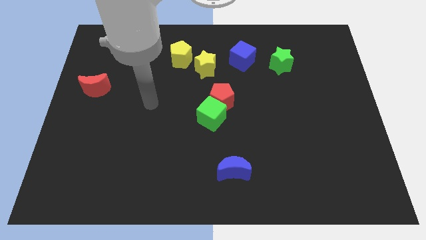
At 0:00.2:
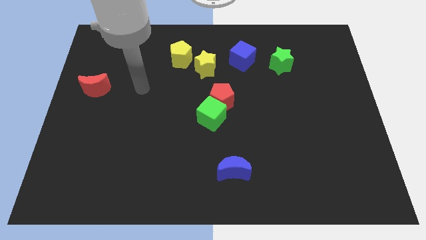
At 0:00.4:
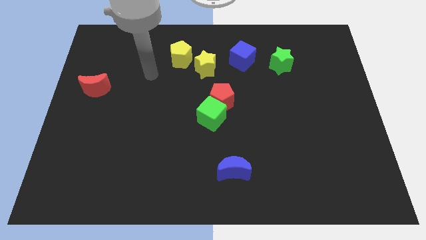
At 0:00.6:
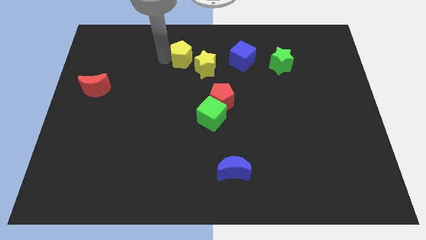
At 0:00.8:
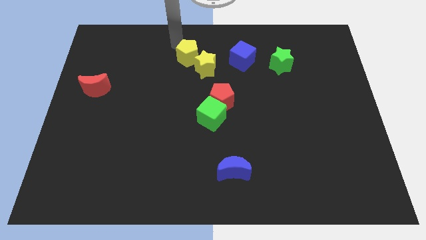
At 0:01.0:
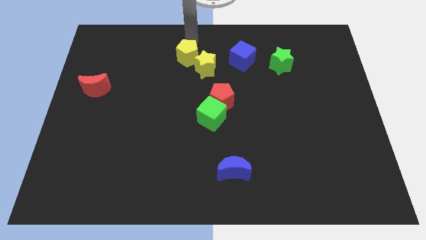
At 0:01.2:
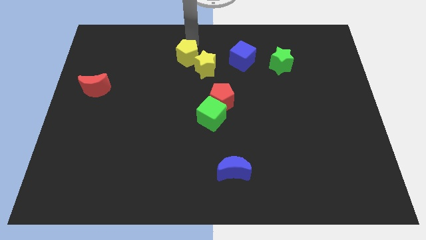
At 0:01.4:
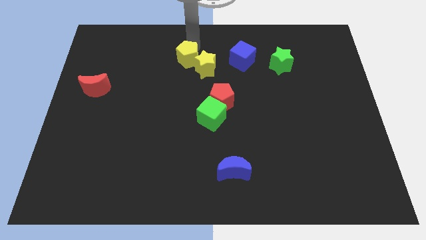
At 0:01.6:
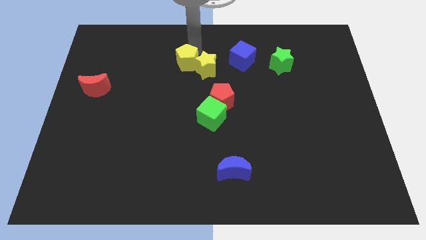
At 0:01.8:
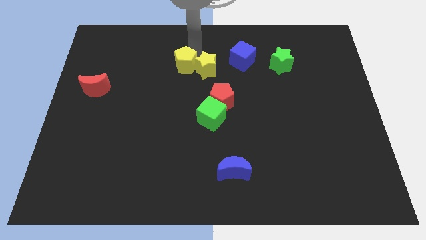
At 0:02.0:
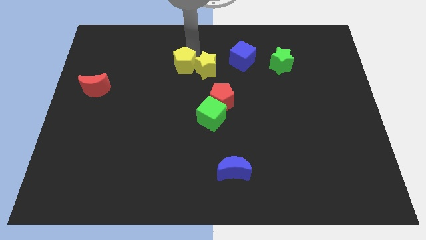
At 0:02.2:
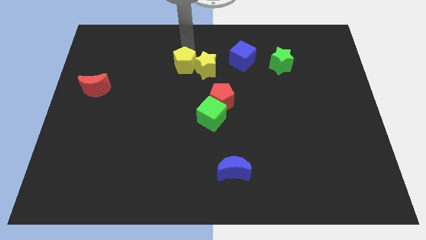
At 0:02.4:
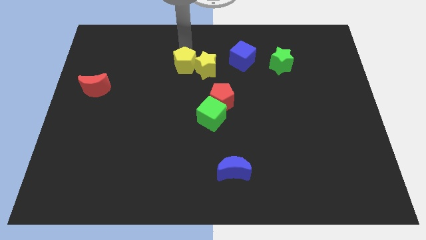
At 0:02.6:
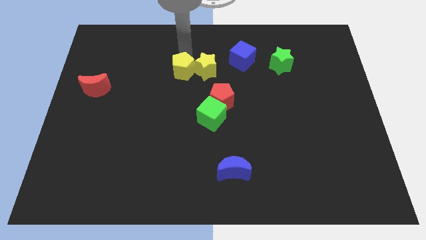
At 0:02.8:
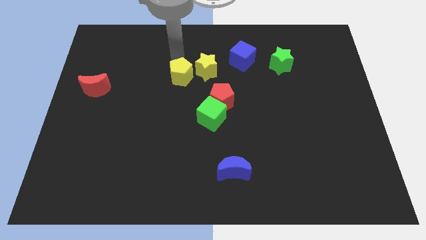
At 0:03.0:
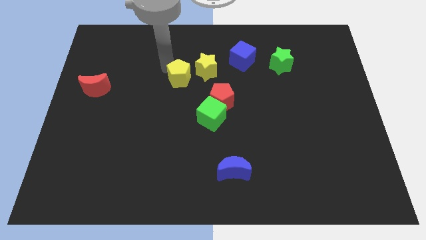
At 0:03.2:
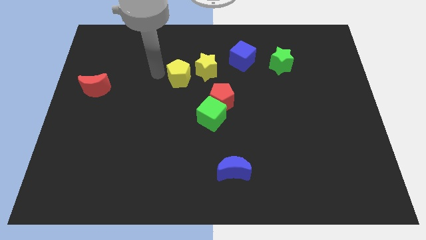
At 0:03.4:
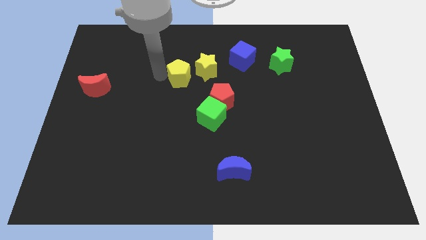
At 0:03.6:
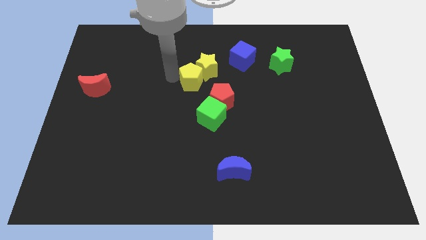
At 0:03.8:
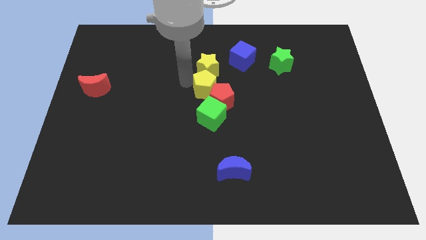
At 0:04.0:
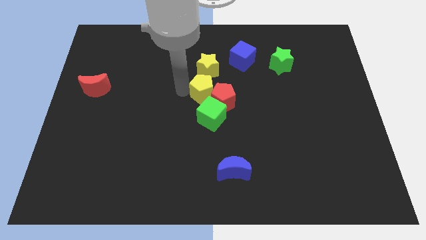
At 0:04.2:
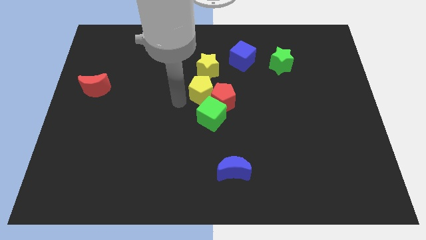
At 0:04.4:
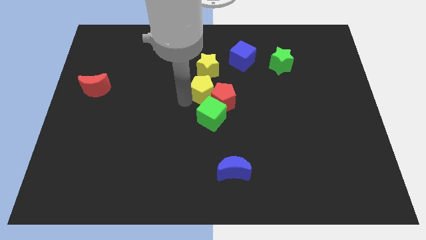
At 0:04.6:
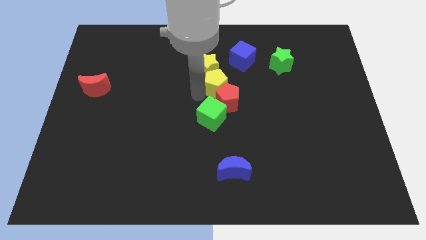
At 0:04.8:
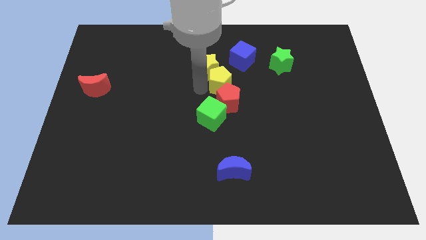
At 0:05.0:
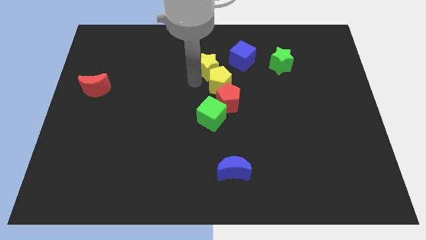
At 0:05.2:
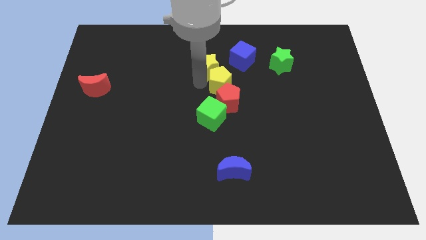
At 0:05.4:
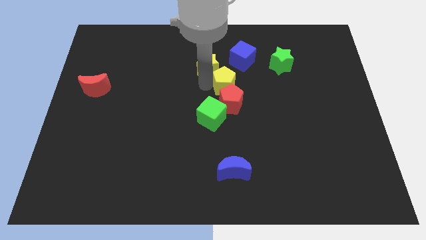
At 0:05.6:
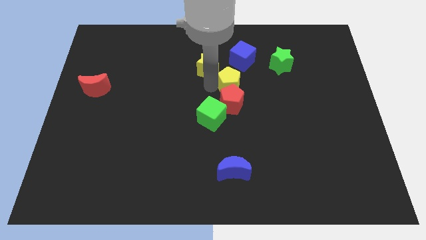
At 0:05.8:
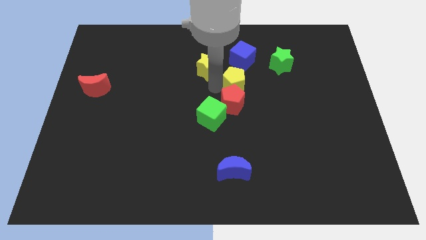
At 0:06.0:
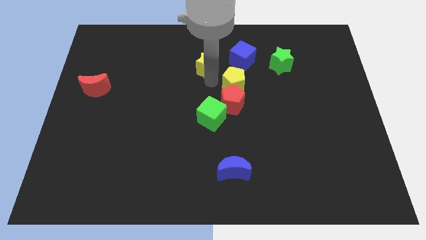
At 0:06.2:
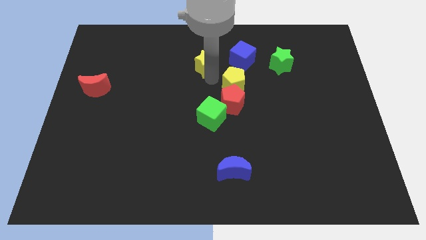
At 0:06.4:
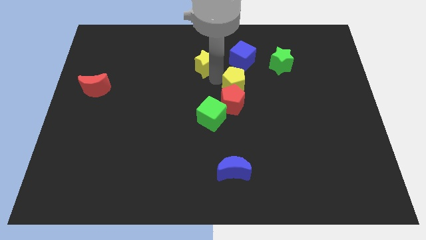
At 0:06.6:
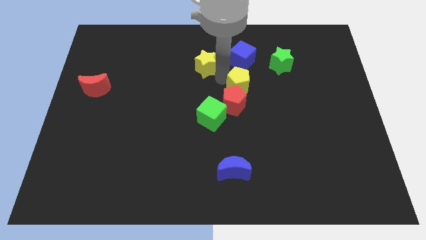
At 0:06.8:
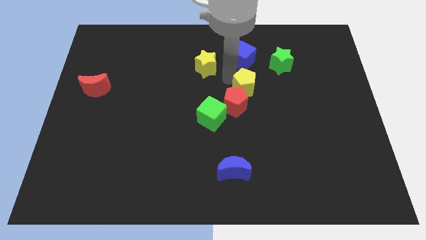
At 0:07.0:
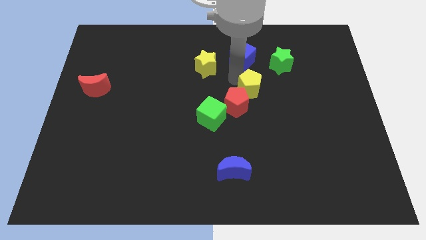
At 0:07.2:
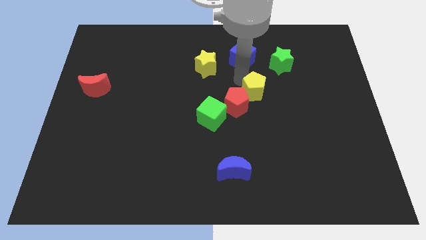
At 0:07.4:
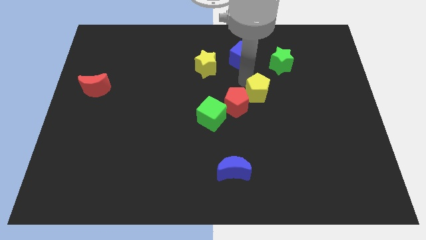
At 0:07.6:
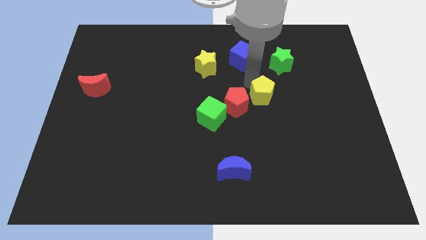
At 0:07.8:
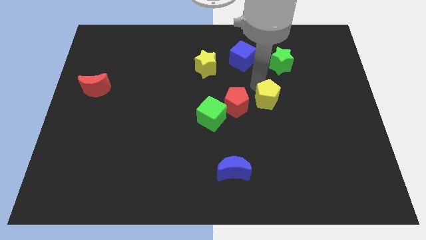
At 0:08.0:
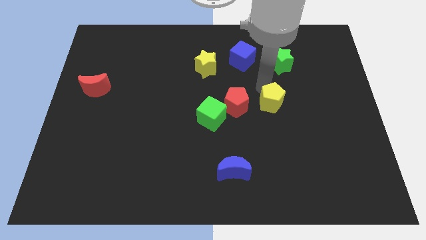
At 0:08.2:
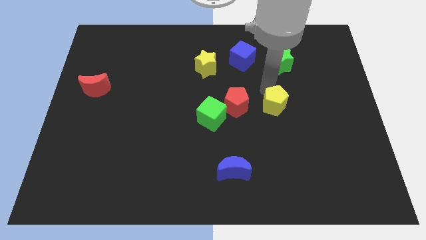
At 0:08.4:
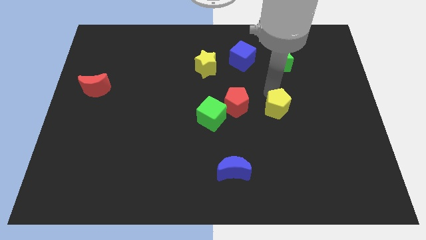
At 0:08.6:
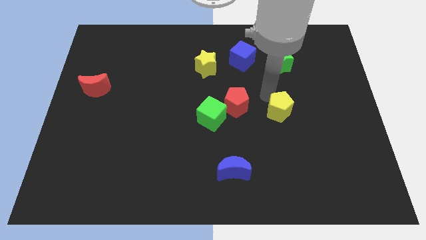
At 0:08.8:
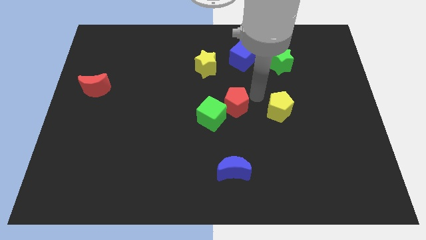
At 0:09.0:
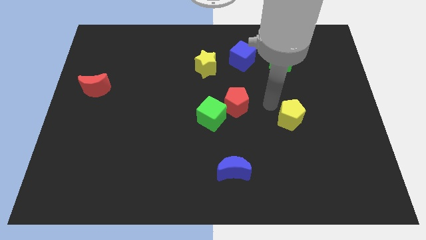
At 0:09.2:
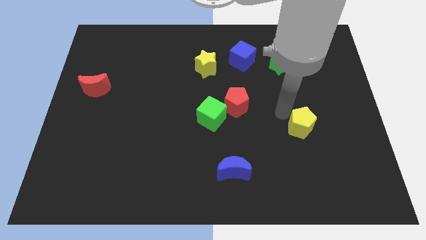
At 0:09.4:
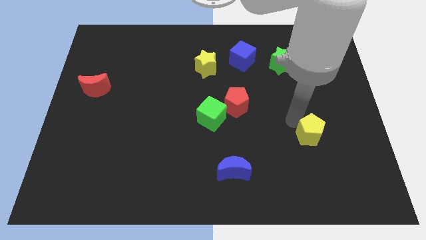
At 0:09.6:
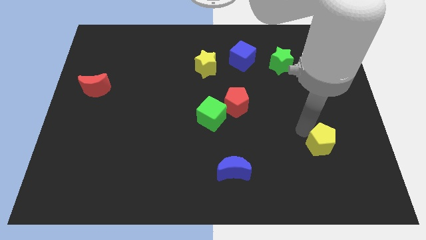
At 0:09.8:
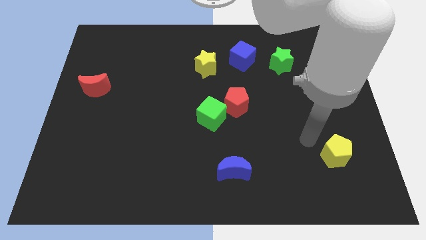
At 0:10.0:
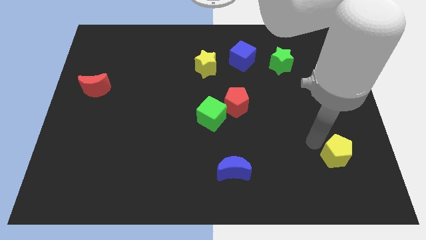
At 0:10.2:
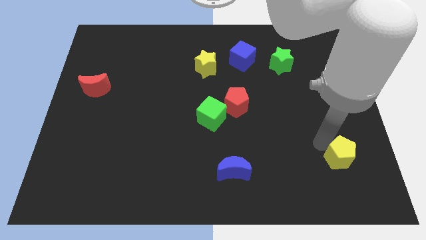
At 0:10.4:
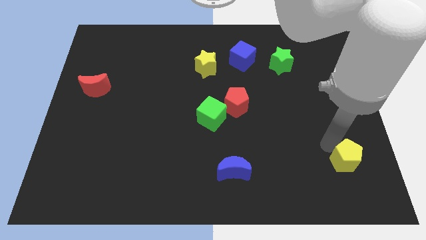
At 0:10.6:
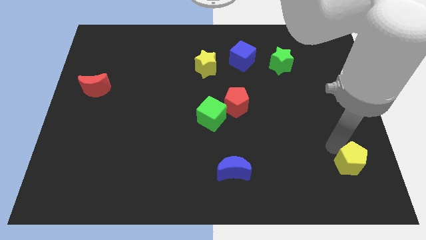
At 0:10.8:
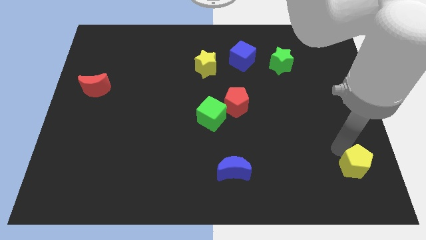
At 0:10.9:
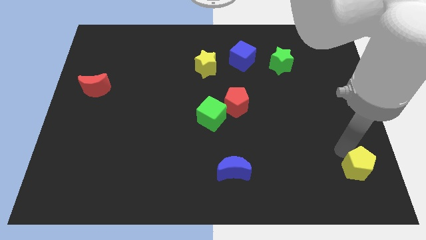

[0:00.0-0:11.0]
push the yellow pentagon to the bottom right
